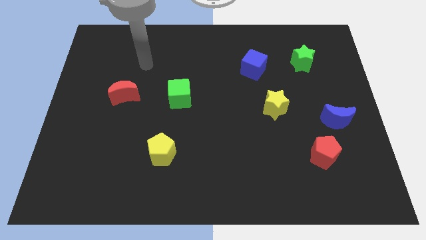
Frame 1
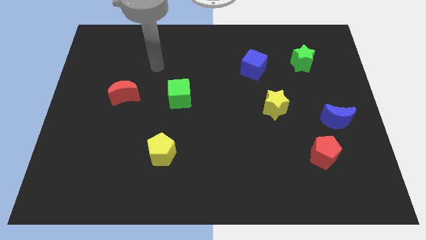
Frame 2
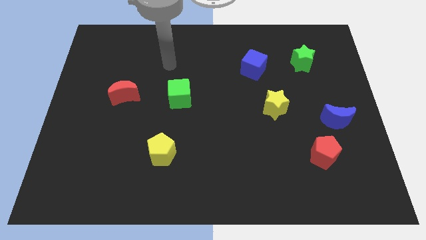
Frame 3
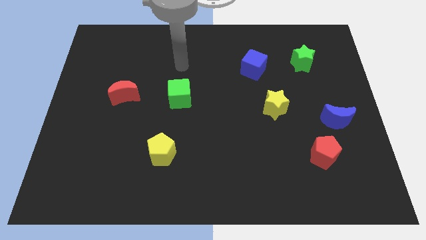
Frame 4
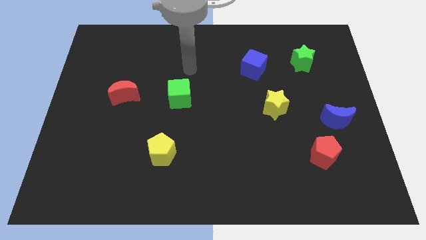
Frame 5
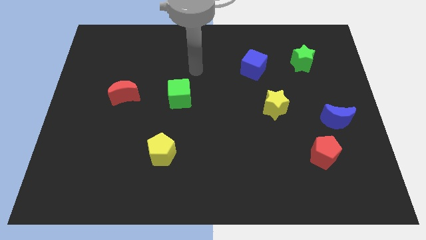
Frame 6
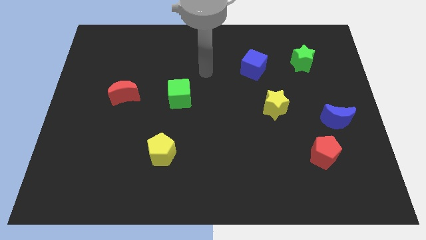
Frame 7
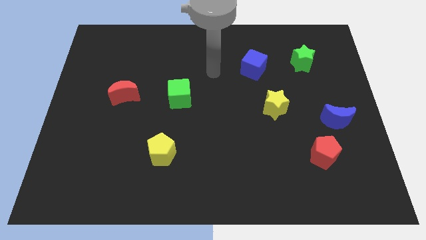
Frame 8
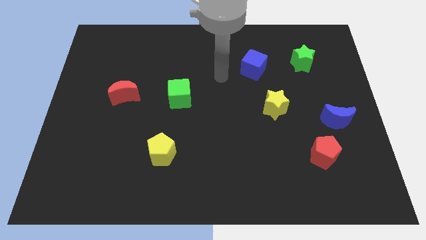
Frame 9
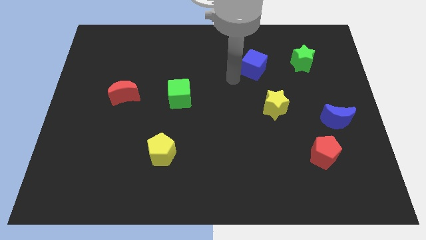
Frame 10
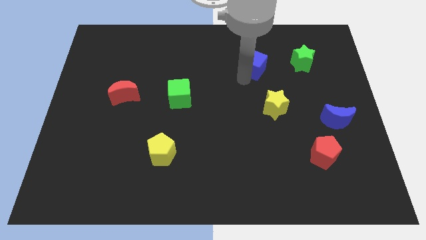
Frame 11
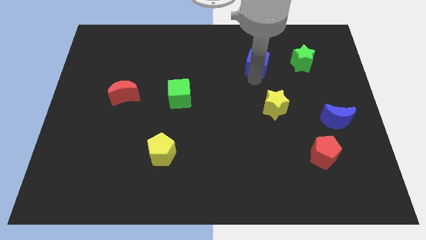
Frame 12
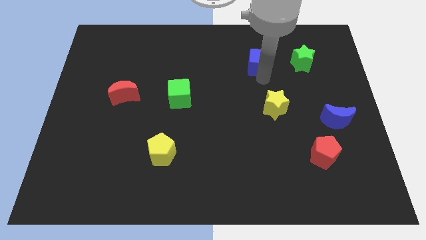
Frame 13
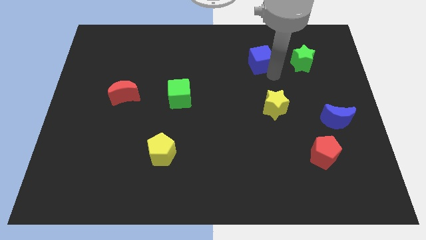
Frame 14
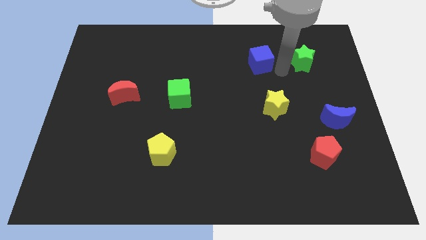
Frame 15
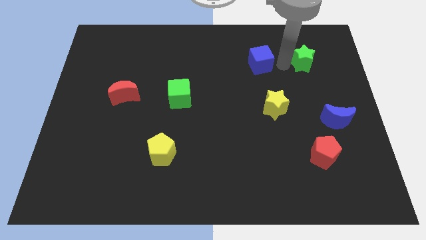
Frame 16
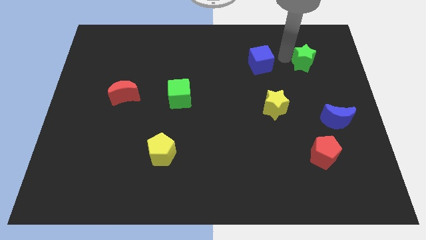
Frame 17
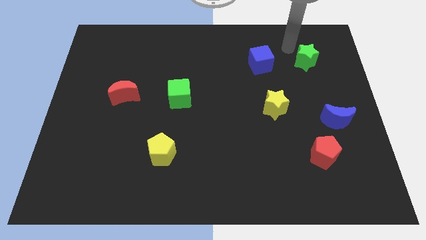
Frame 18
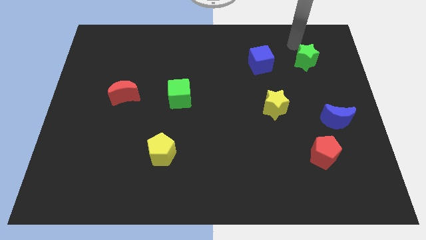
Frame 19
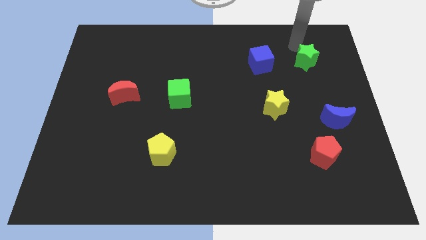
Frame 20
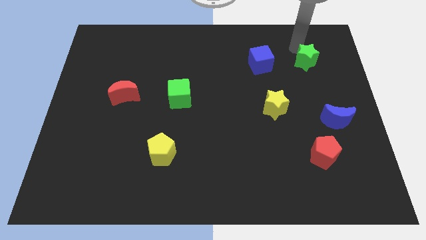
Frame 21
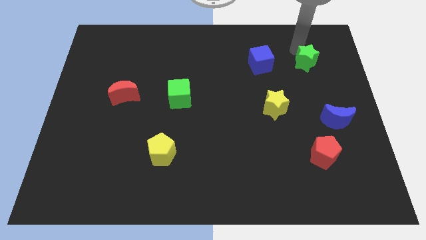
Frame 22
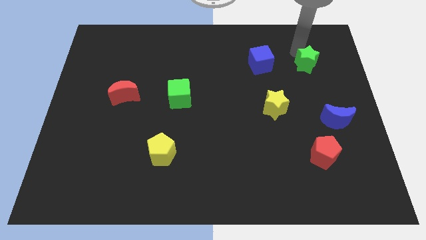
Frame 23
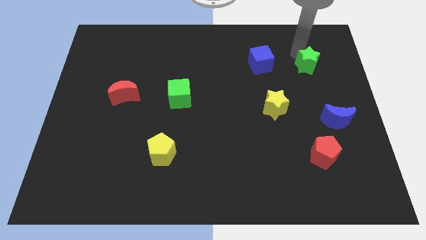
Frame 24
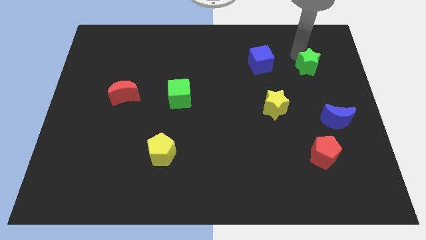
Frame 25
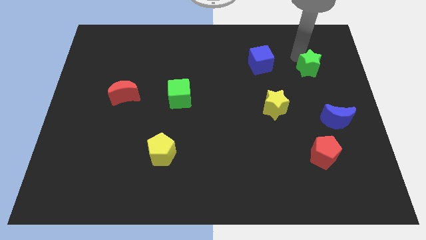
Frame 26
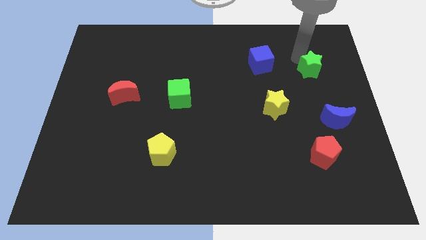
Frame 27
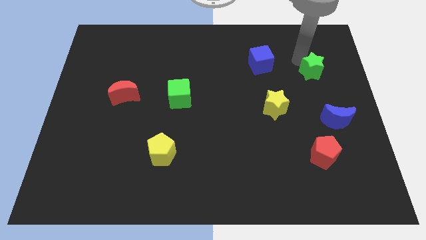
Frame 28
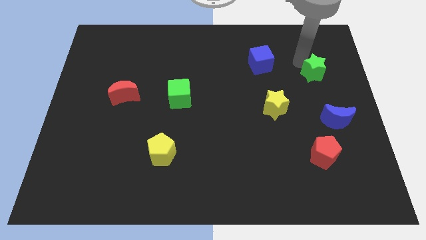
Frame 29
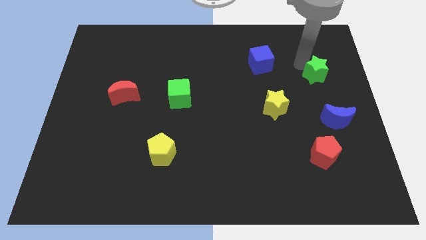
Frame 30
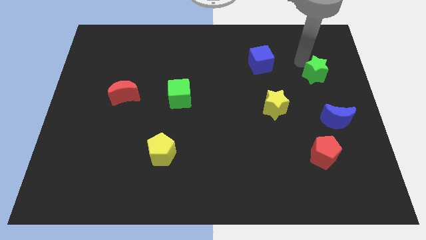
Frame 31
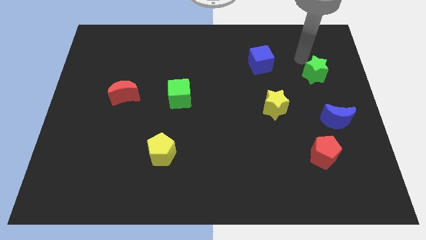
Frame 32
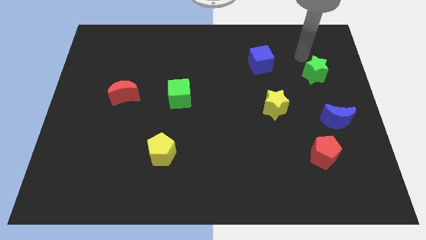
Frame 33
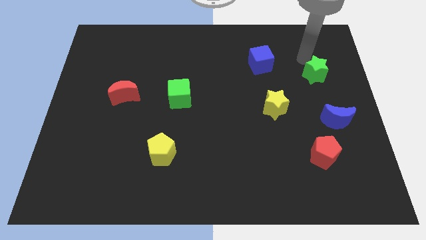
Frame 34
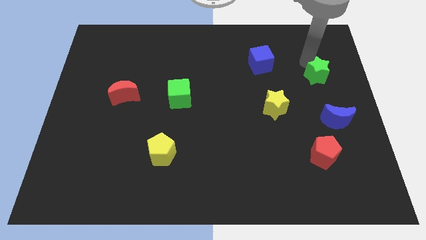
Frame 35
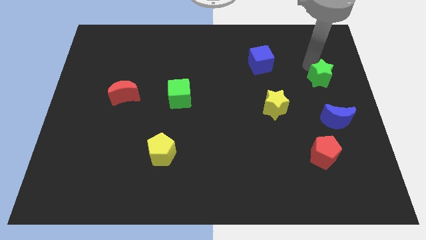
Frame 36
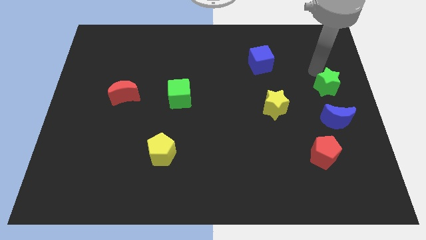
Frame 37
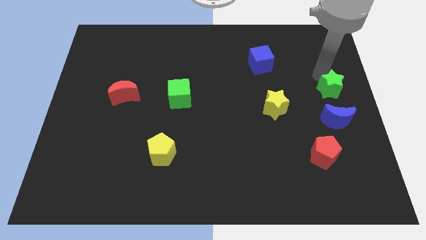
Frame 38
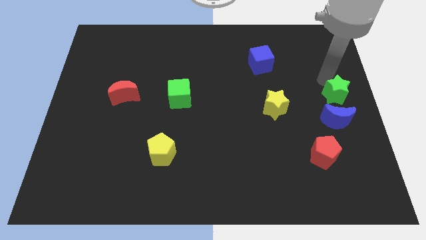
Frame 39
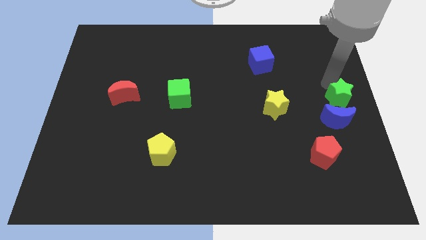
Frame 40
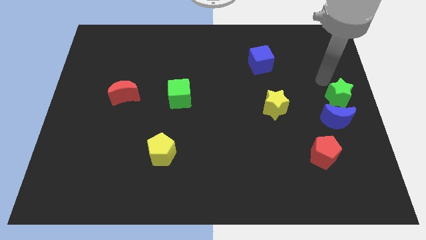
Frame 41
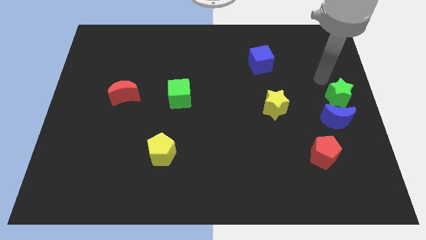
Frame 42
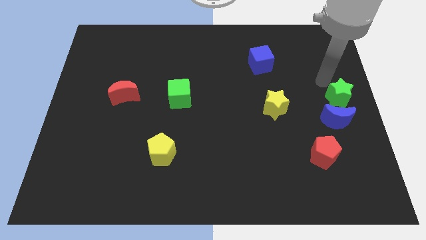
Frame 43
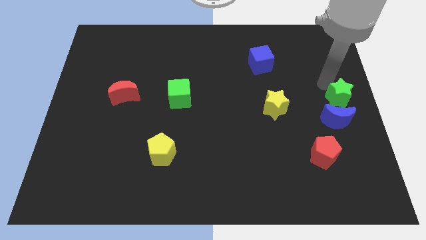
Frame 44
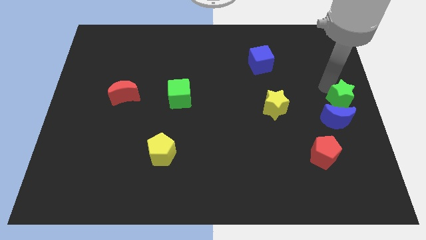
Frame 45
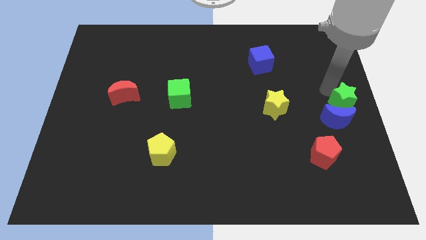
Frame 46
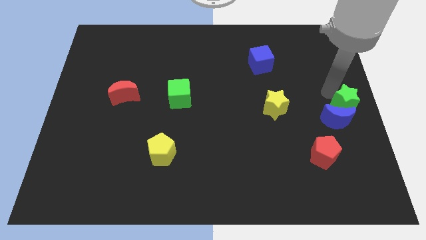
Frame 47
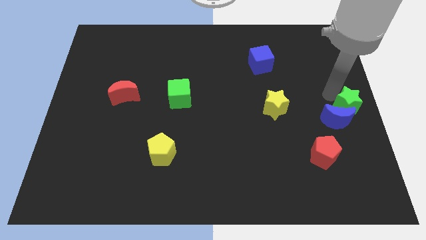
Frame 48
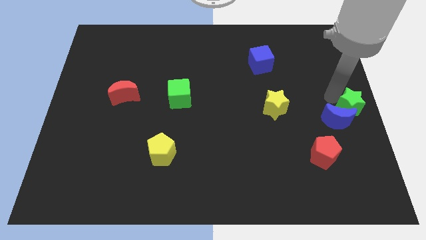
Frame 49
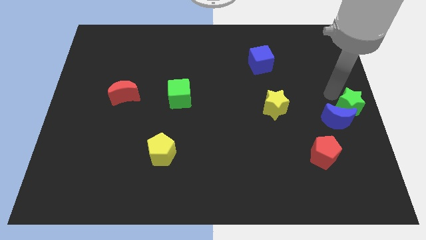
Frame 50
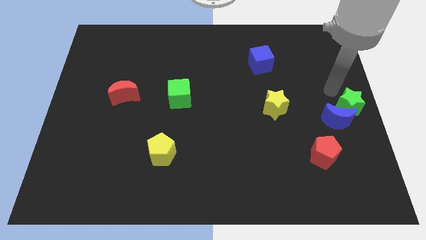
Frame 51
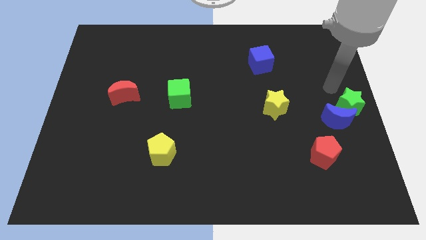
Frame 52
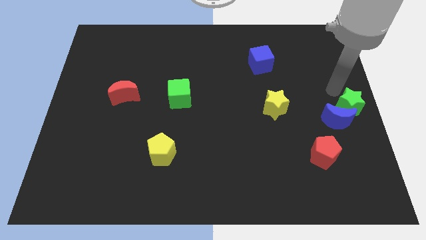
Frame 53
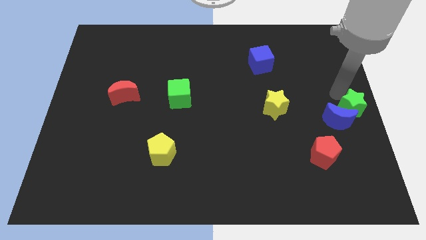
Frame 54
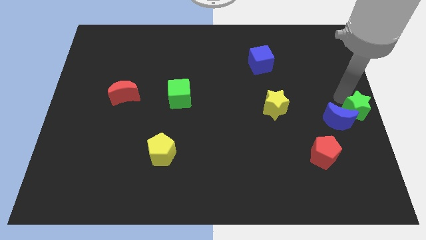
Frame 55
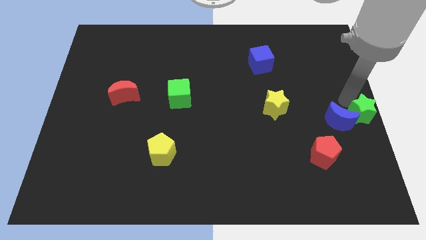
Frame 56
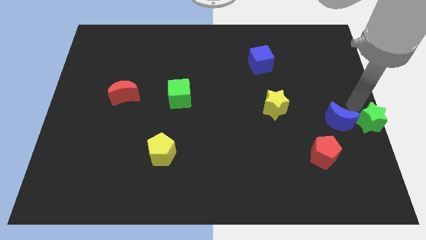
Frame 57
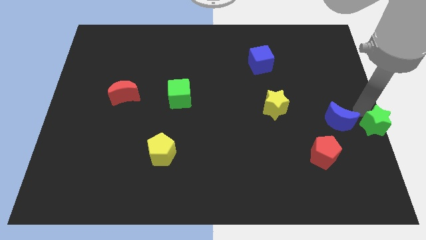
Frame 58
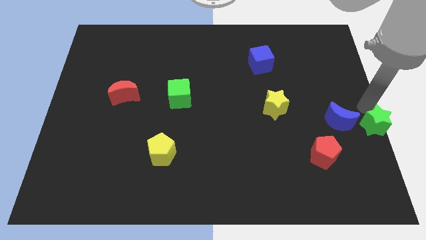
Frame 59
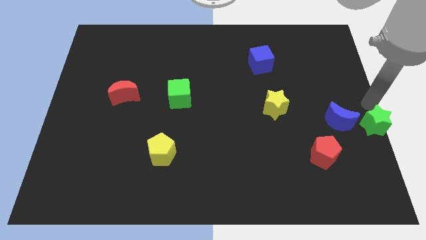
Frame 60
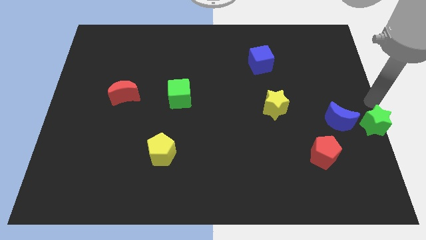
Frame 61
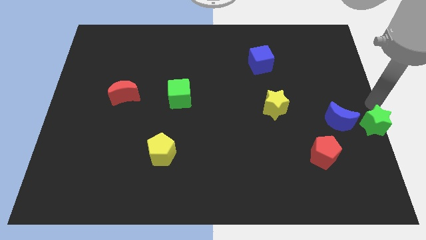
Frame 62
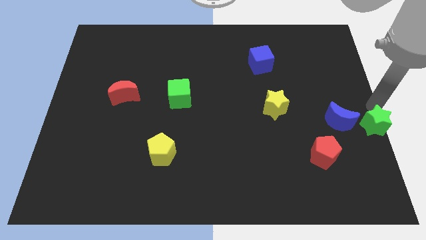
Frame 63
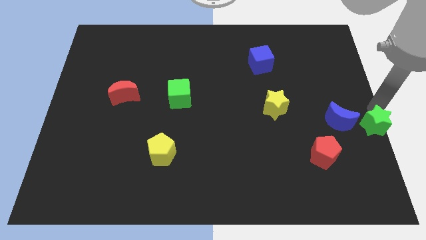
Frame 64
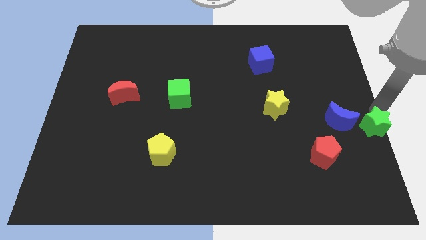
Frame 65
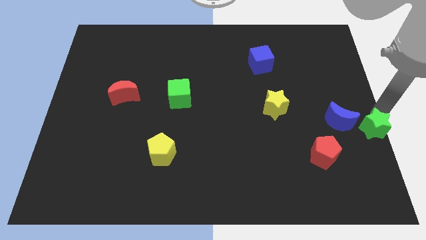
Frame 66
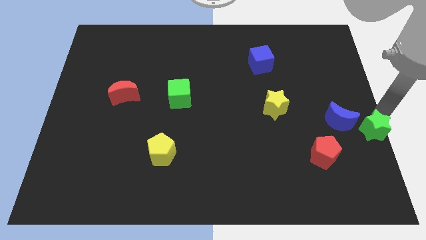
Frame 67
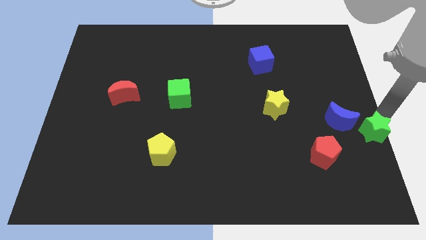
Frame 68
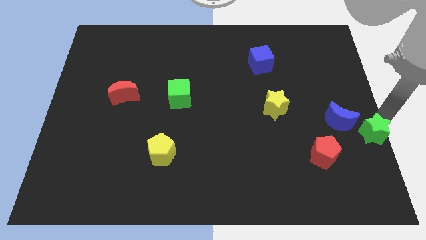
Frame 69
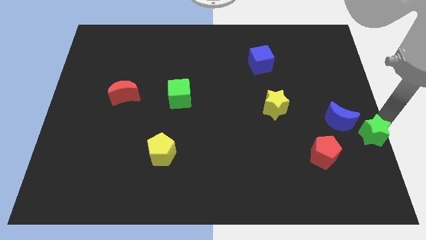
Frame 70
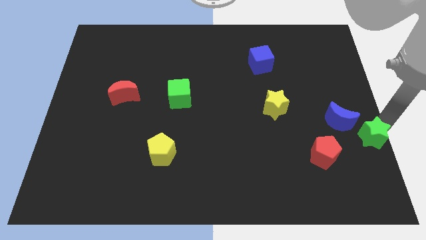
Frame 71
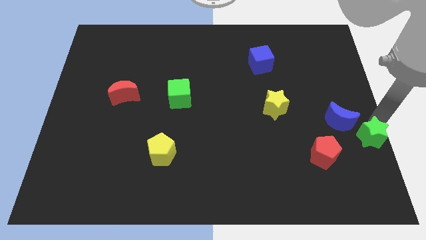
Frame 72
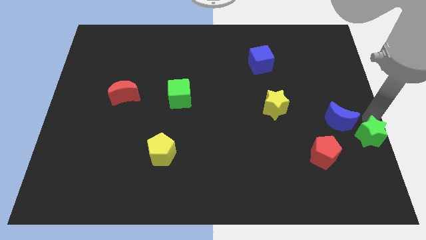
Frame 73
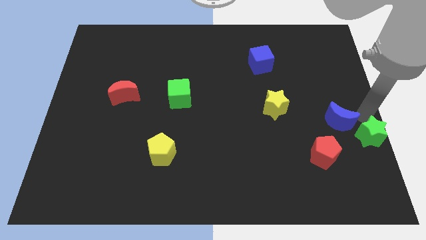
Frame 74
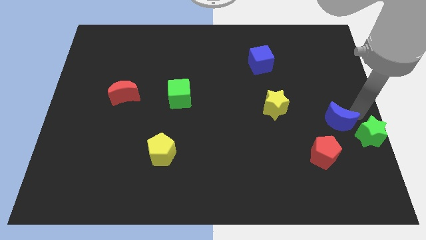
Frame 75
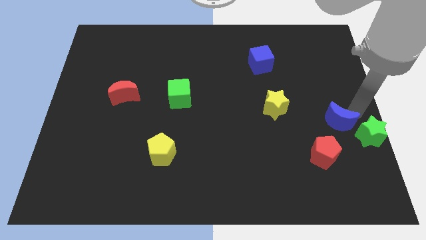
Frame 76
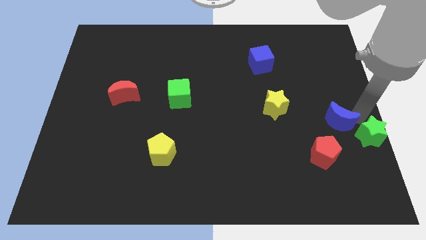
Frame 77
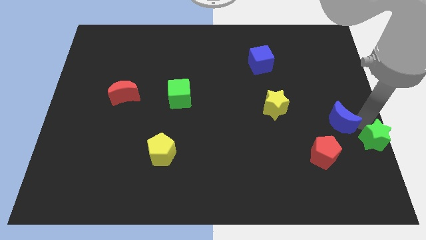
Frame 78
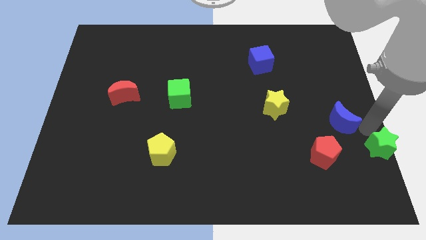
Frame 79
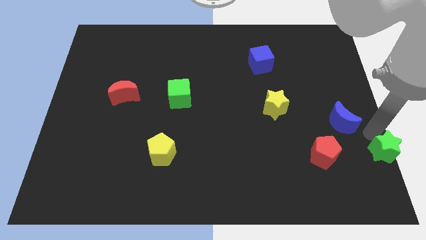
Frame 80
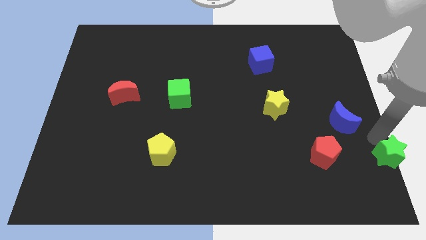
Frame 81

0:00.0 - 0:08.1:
slide the green star to the bottom right corner
